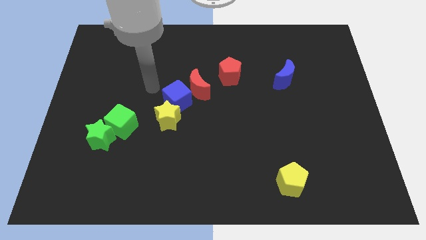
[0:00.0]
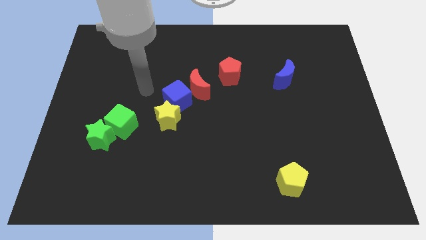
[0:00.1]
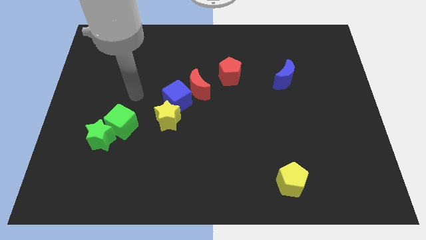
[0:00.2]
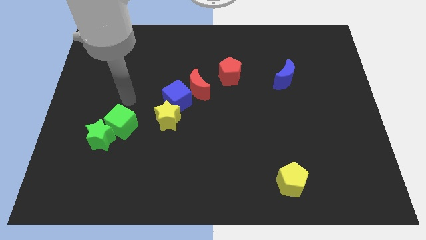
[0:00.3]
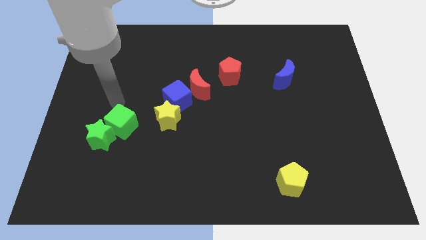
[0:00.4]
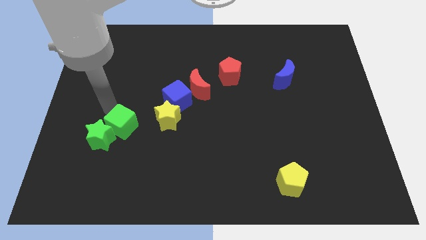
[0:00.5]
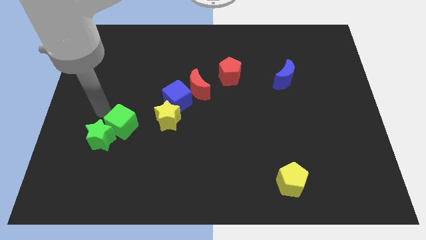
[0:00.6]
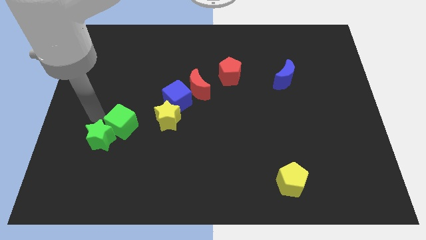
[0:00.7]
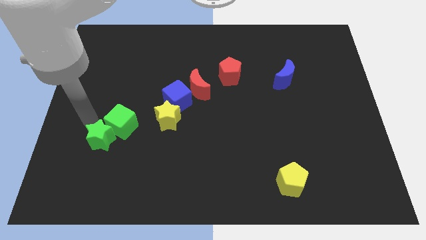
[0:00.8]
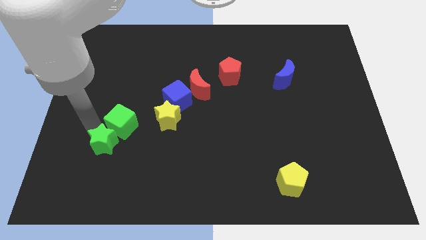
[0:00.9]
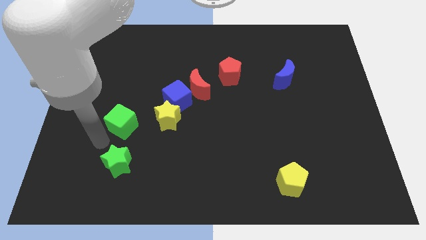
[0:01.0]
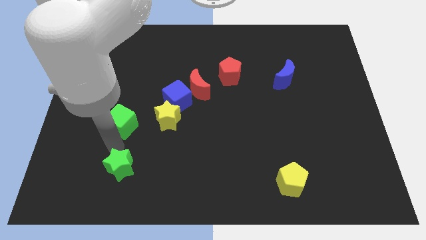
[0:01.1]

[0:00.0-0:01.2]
pull the green cube apart from the green star

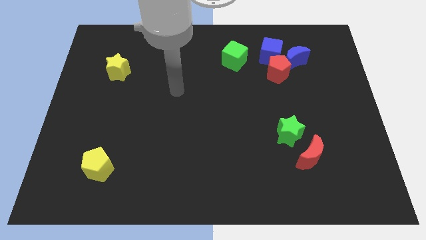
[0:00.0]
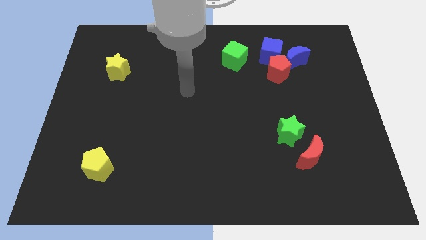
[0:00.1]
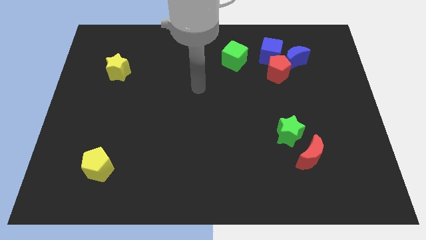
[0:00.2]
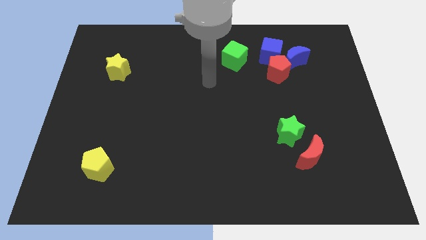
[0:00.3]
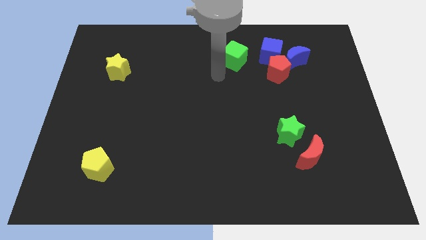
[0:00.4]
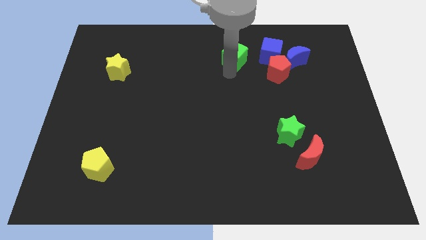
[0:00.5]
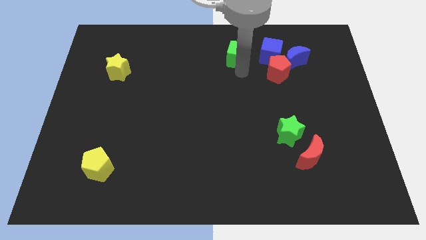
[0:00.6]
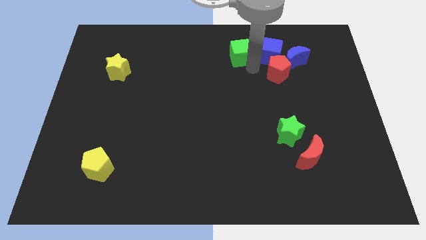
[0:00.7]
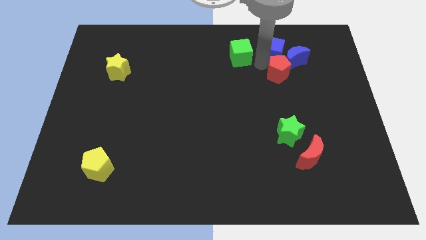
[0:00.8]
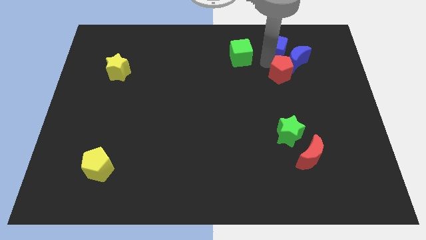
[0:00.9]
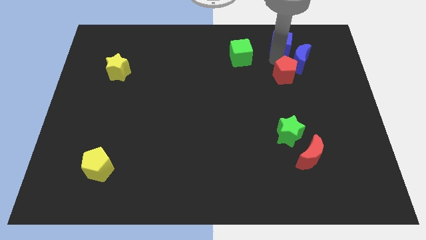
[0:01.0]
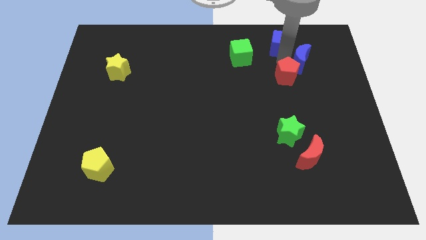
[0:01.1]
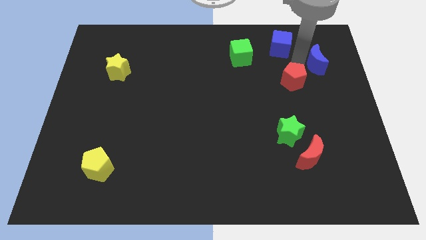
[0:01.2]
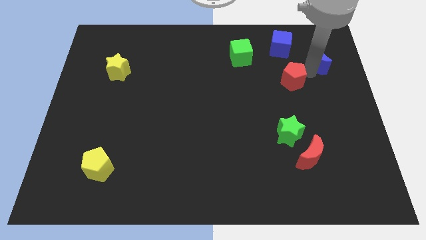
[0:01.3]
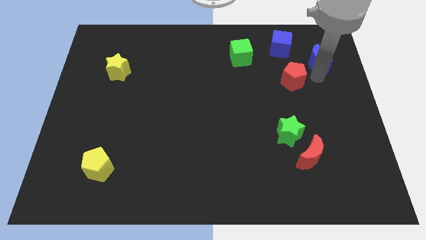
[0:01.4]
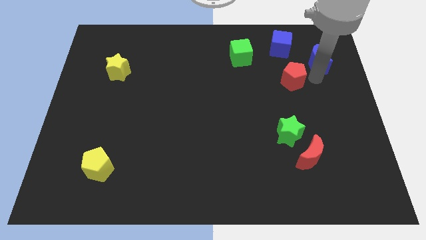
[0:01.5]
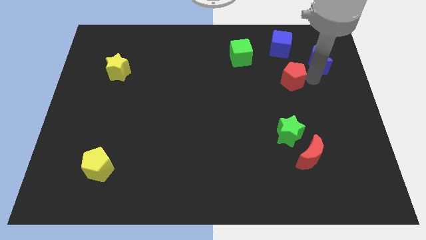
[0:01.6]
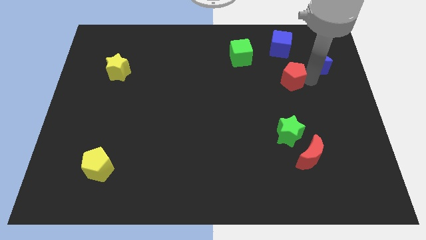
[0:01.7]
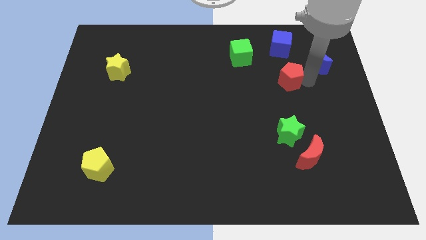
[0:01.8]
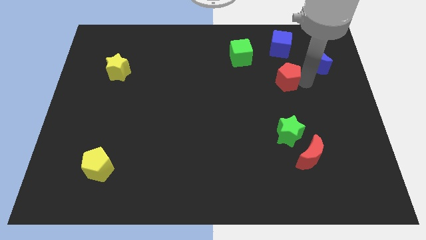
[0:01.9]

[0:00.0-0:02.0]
pull the red pentagon apart from the blue moon and blue cube

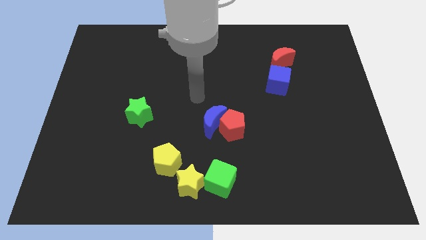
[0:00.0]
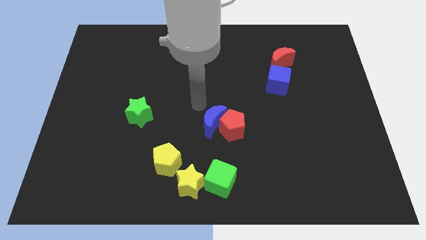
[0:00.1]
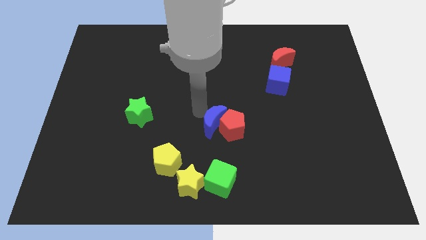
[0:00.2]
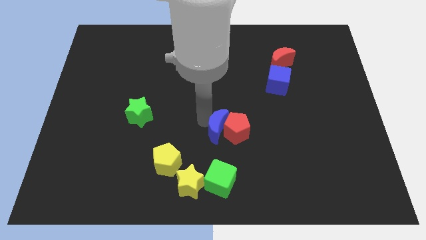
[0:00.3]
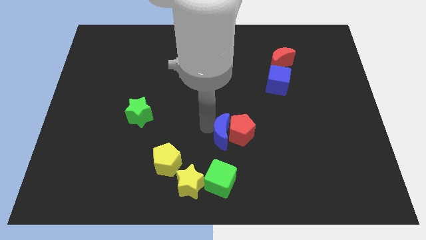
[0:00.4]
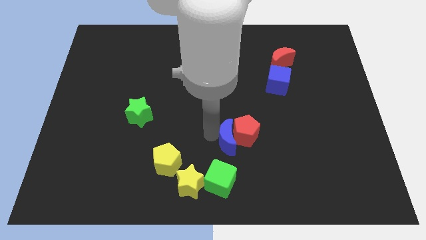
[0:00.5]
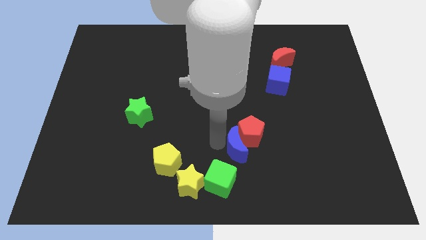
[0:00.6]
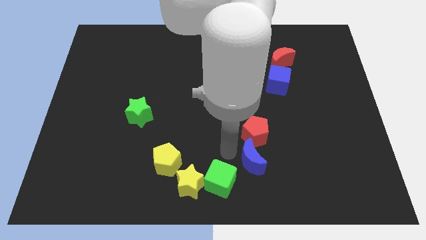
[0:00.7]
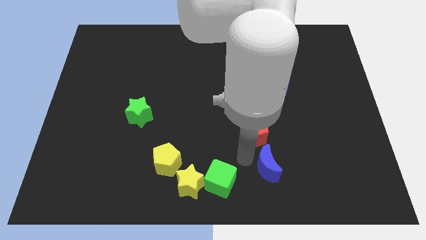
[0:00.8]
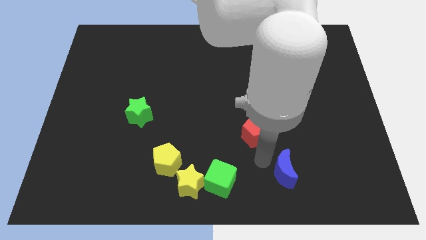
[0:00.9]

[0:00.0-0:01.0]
pull the red pentagon apart from the blue moon

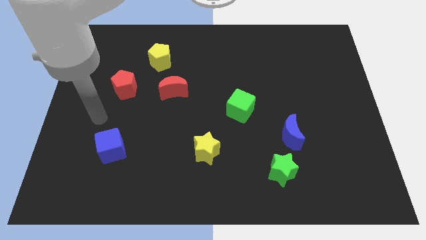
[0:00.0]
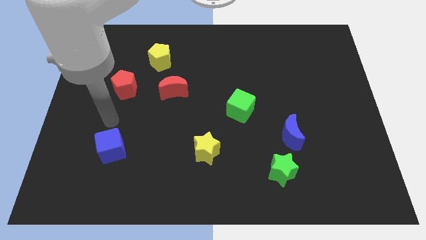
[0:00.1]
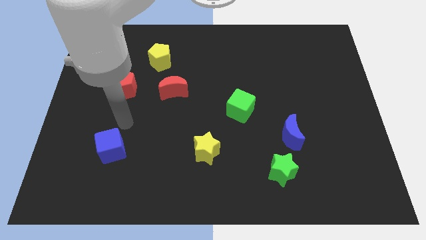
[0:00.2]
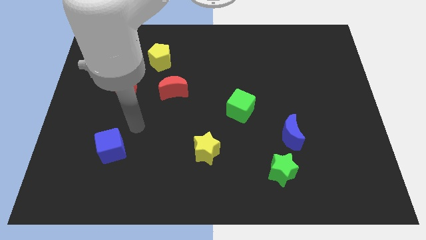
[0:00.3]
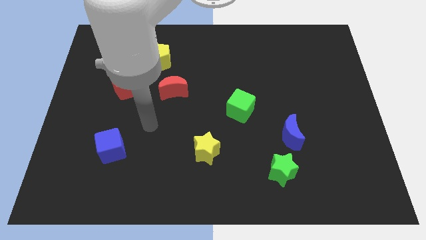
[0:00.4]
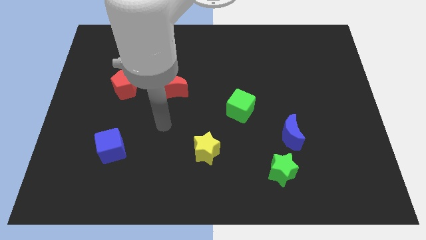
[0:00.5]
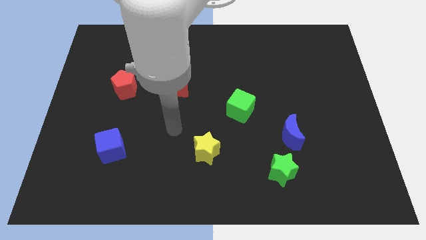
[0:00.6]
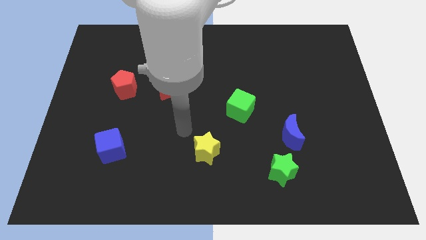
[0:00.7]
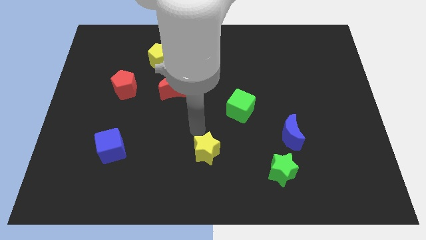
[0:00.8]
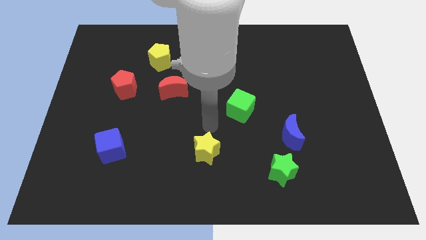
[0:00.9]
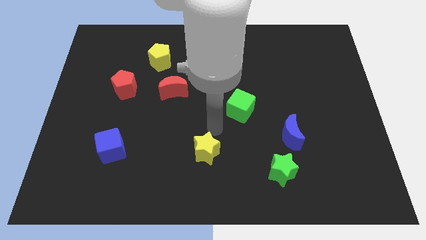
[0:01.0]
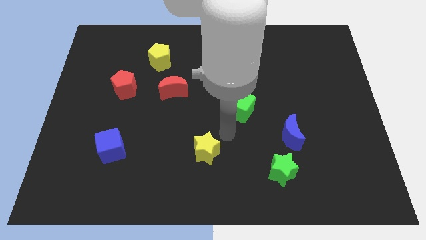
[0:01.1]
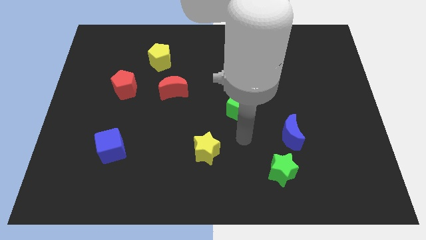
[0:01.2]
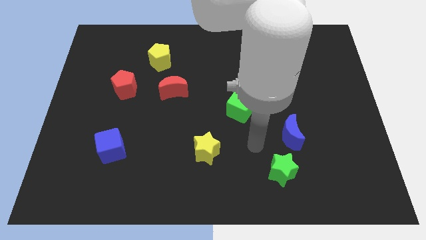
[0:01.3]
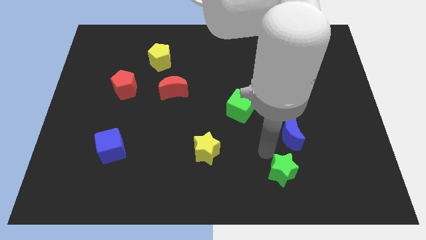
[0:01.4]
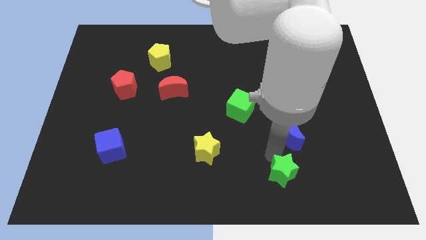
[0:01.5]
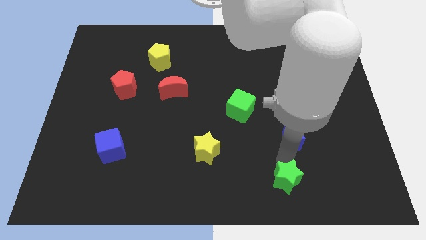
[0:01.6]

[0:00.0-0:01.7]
move the blue moon away from the green star

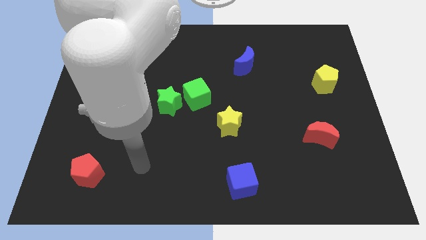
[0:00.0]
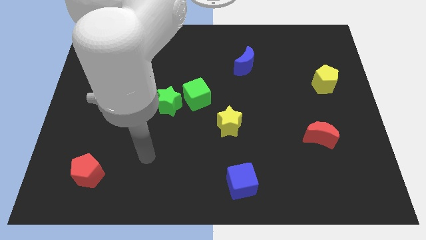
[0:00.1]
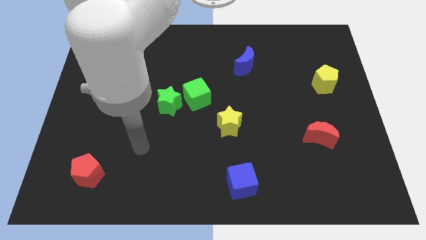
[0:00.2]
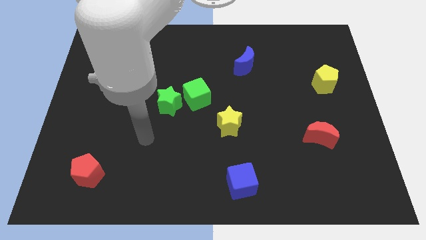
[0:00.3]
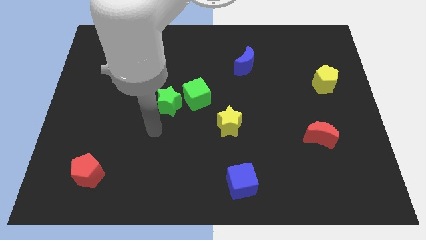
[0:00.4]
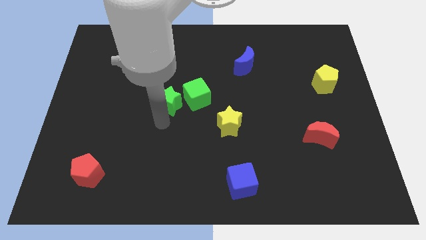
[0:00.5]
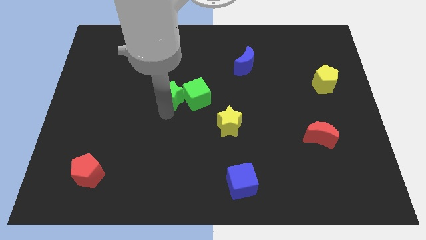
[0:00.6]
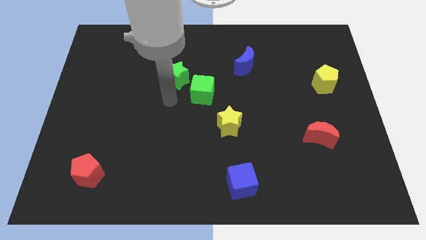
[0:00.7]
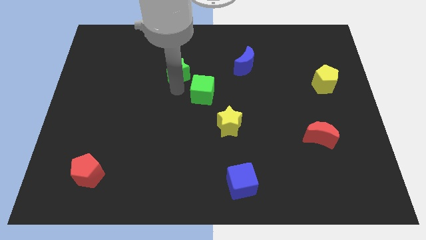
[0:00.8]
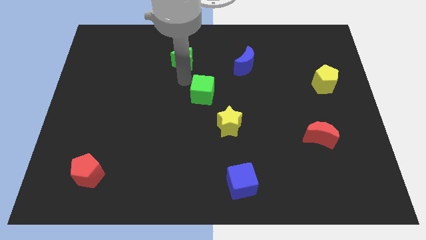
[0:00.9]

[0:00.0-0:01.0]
separate the green cube from the green star

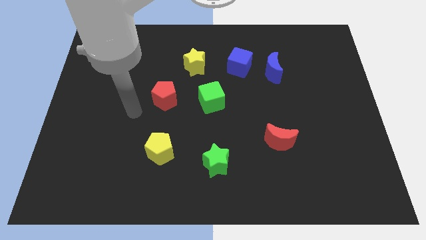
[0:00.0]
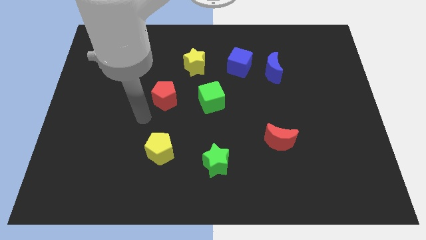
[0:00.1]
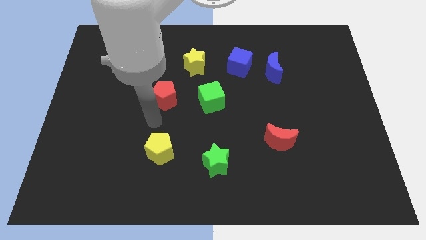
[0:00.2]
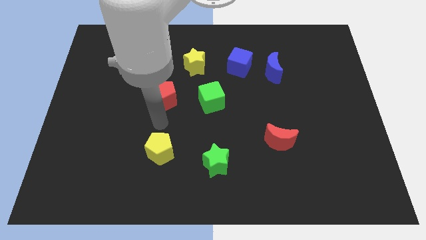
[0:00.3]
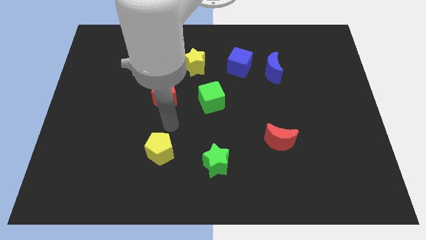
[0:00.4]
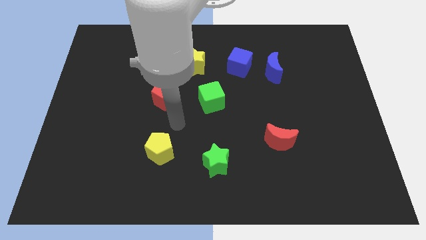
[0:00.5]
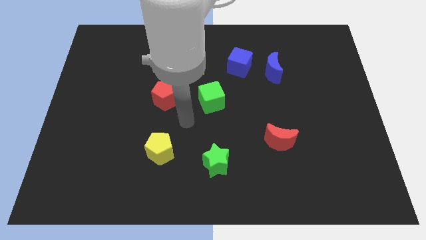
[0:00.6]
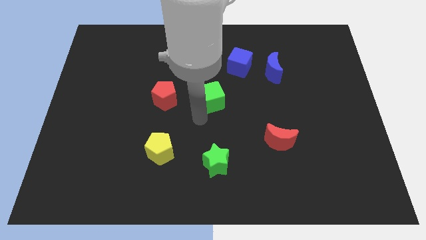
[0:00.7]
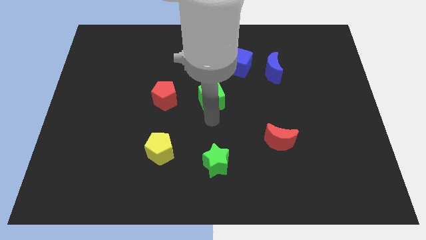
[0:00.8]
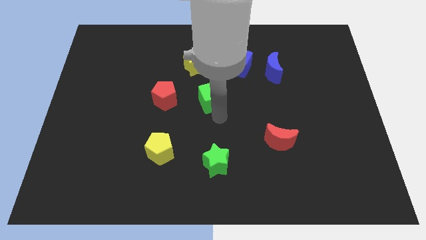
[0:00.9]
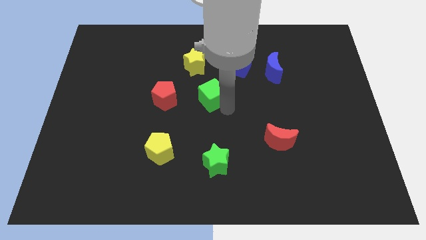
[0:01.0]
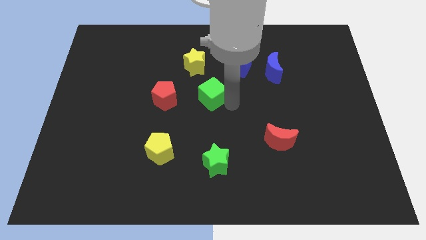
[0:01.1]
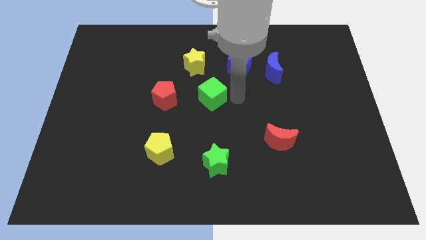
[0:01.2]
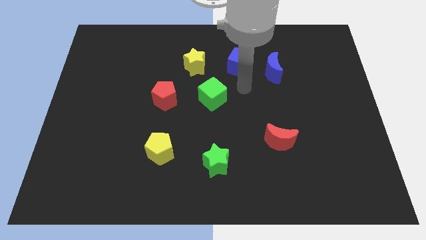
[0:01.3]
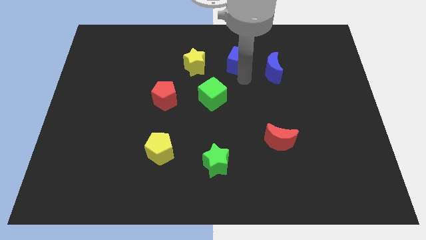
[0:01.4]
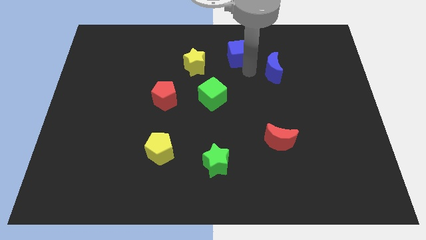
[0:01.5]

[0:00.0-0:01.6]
pull the blue moon apart from the blue cube

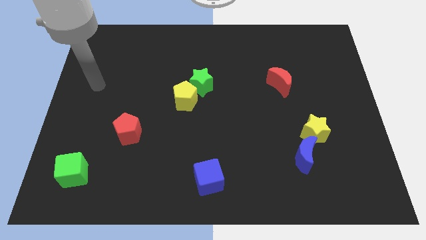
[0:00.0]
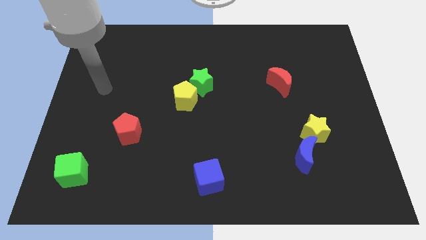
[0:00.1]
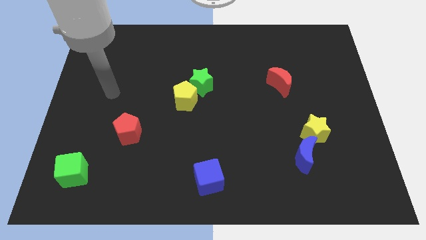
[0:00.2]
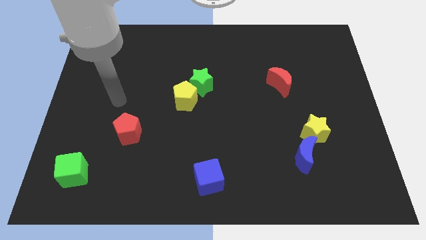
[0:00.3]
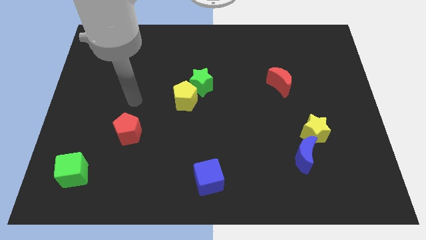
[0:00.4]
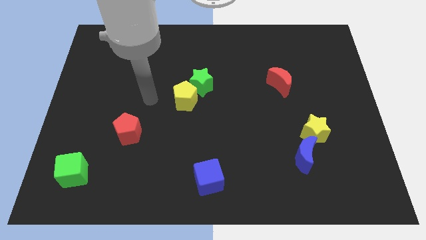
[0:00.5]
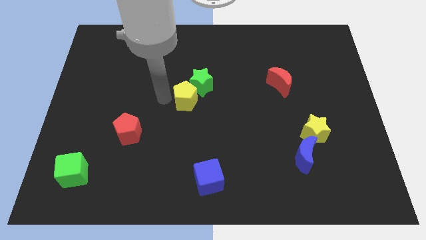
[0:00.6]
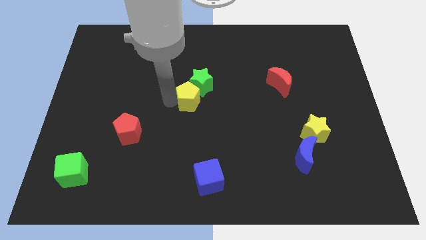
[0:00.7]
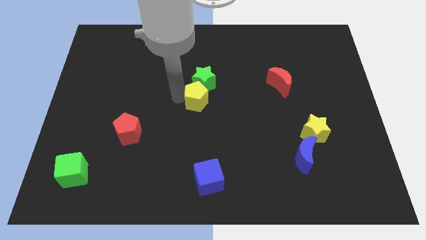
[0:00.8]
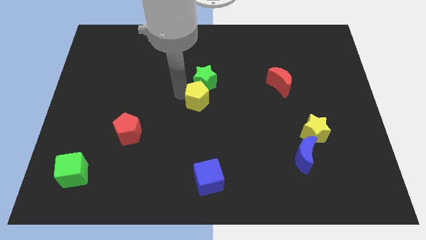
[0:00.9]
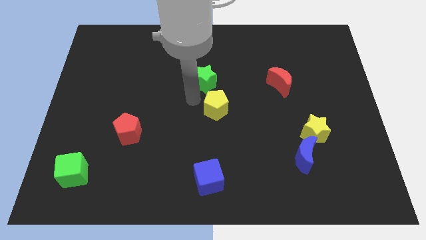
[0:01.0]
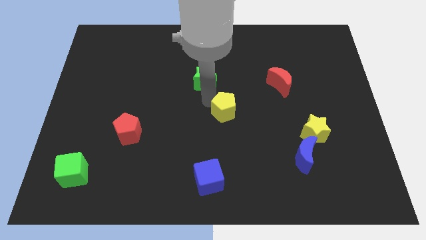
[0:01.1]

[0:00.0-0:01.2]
separate the green star from the yellow pentagon
